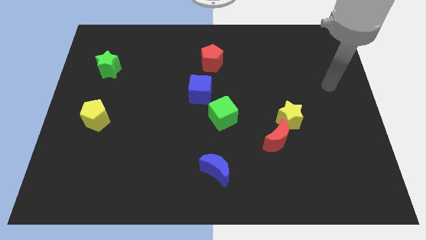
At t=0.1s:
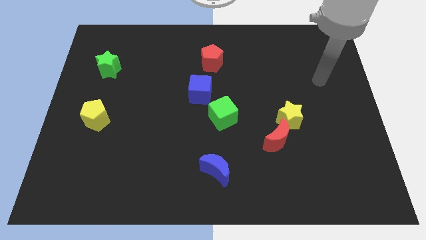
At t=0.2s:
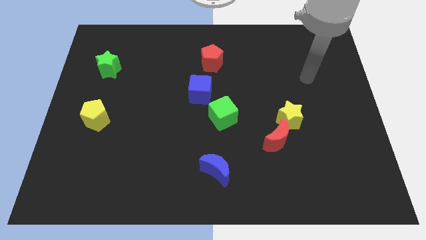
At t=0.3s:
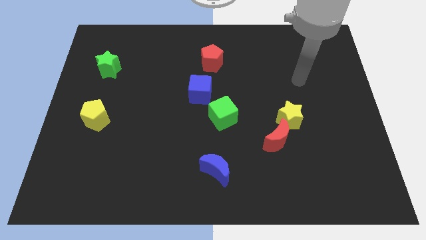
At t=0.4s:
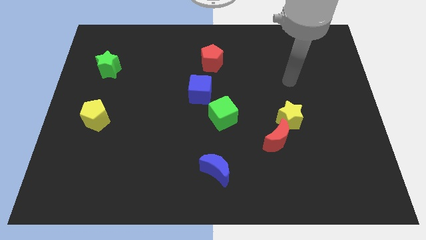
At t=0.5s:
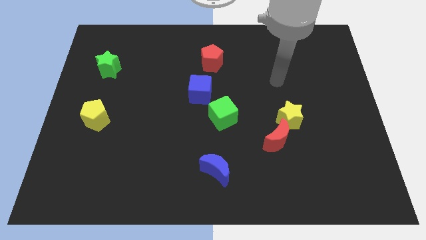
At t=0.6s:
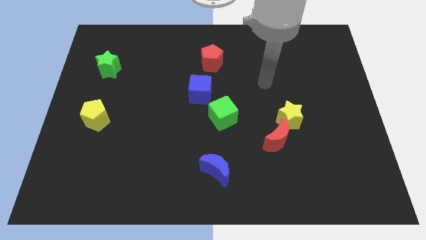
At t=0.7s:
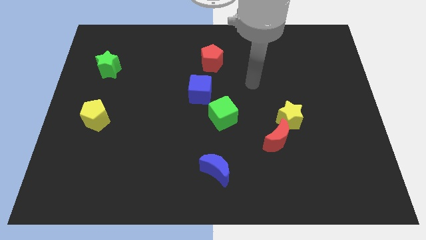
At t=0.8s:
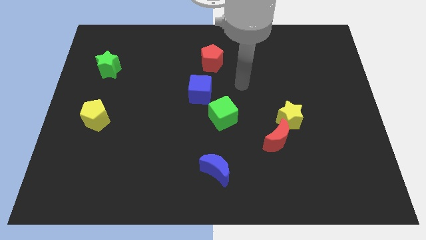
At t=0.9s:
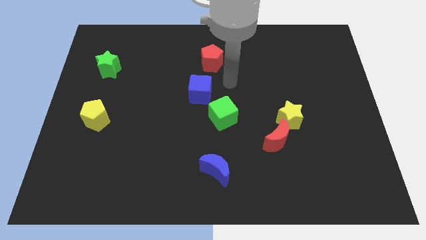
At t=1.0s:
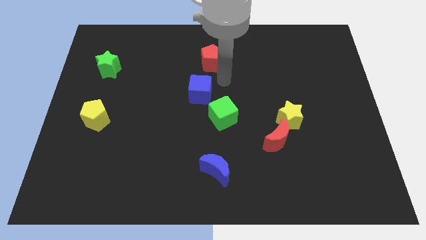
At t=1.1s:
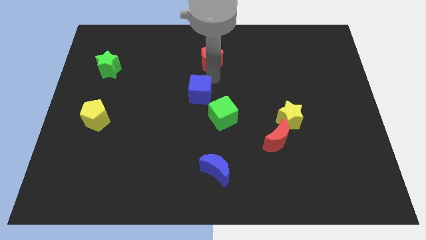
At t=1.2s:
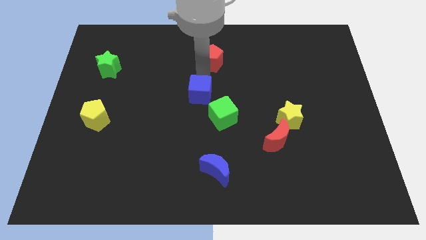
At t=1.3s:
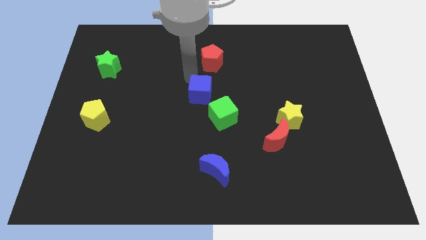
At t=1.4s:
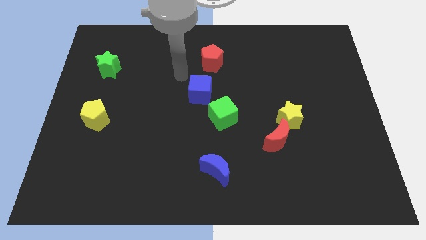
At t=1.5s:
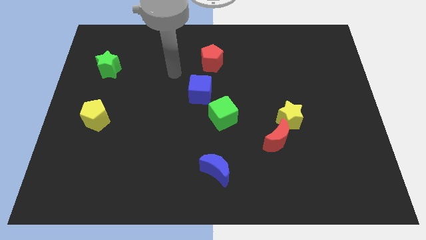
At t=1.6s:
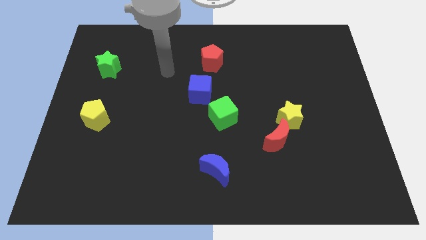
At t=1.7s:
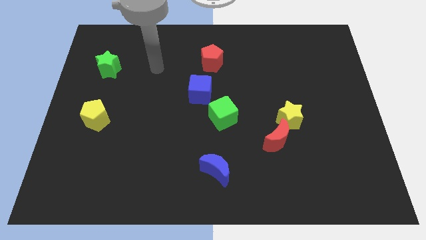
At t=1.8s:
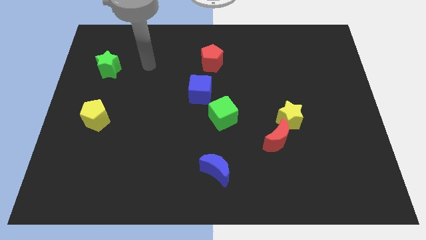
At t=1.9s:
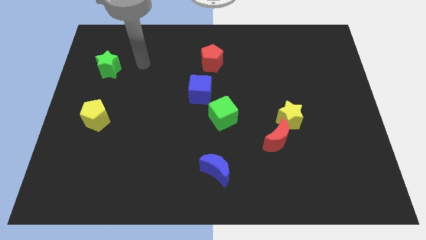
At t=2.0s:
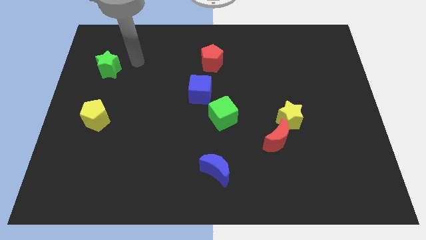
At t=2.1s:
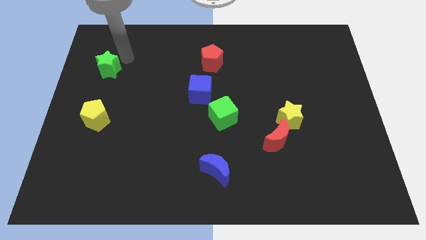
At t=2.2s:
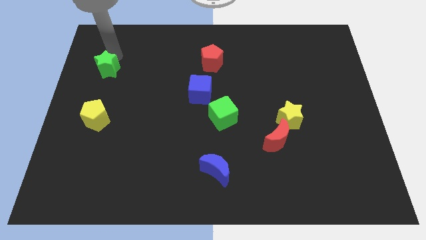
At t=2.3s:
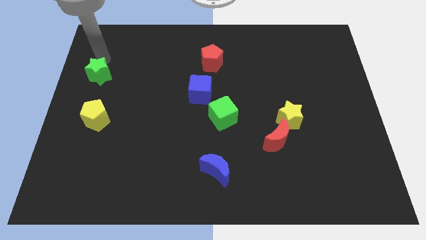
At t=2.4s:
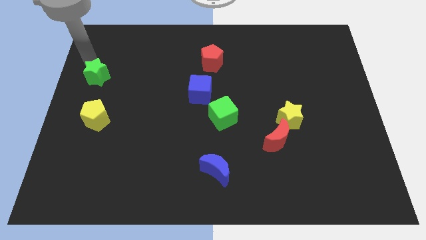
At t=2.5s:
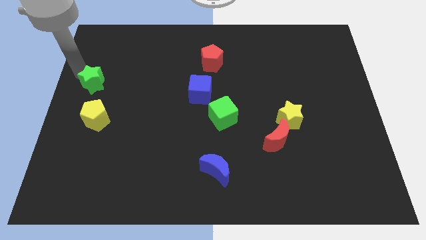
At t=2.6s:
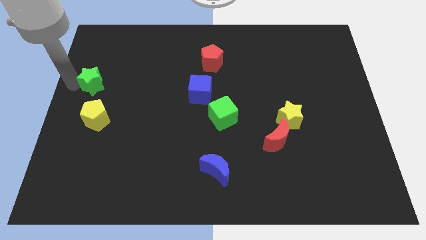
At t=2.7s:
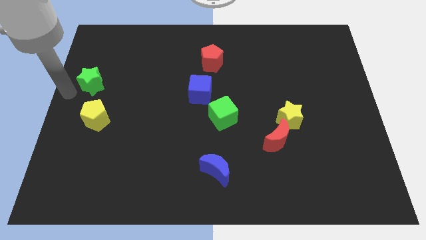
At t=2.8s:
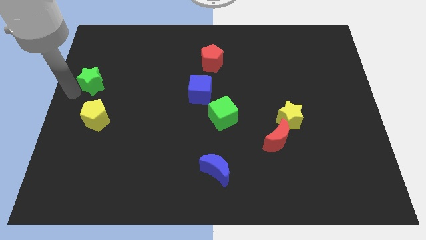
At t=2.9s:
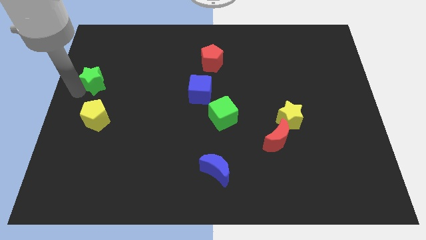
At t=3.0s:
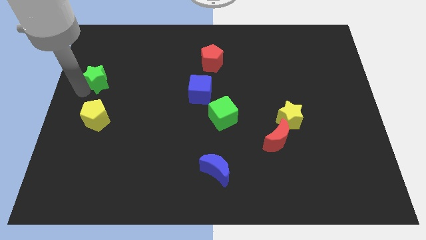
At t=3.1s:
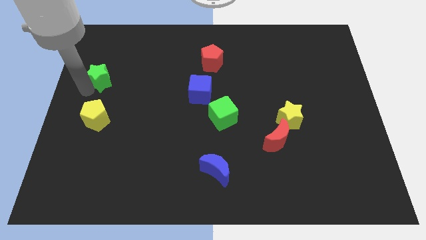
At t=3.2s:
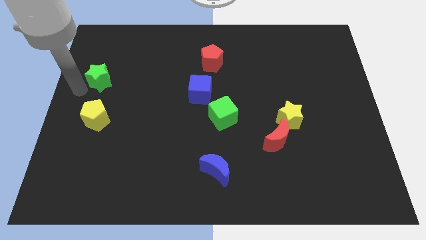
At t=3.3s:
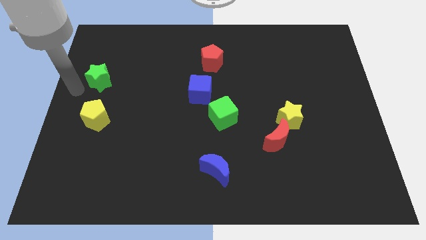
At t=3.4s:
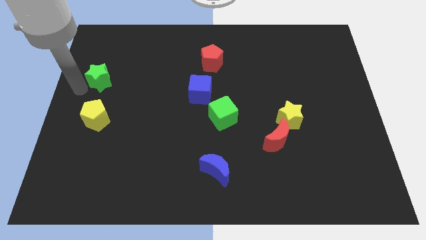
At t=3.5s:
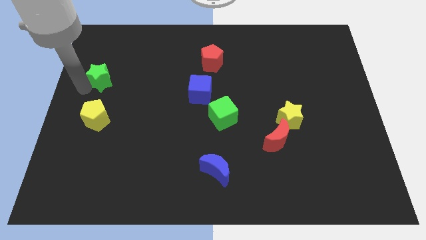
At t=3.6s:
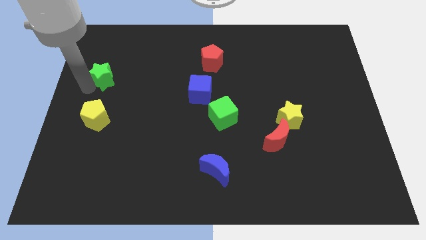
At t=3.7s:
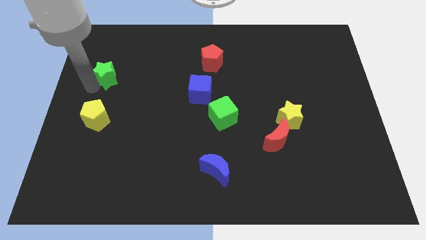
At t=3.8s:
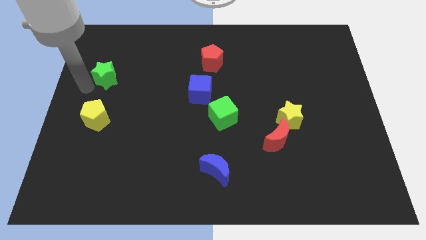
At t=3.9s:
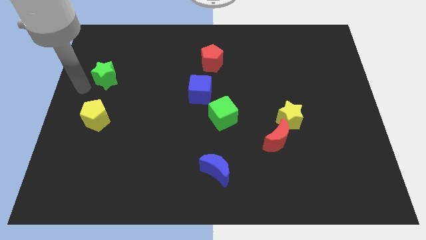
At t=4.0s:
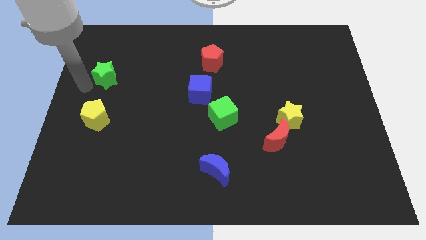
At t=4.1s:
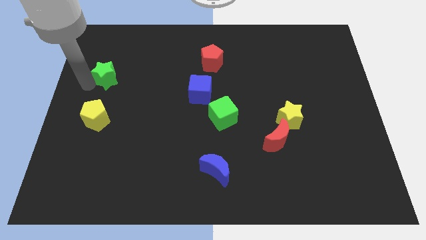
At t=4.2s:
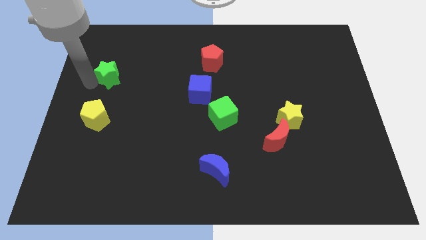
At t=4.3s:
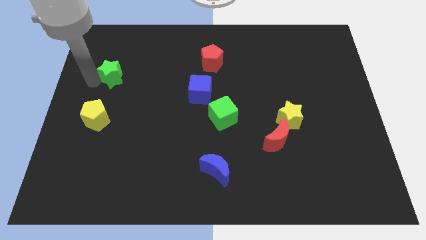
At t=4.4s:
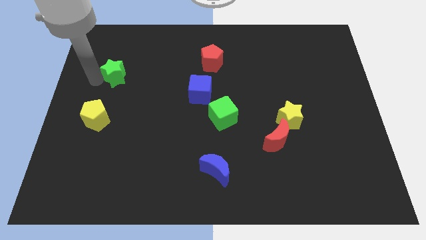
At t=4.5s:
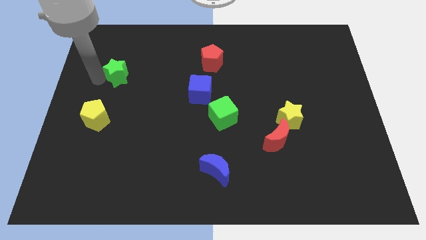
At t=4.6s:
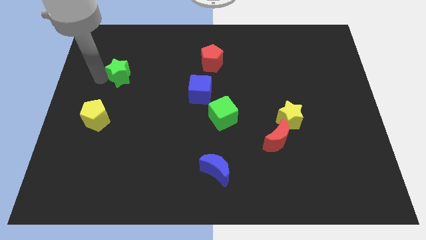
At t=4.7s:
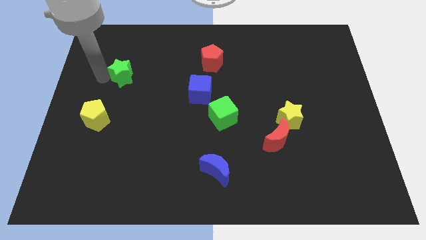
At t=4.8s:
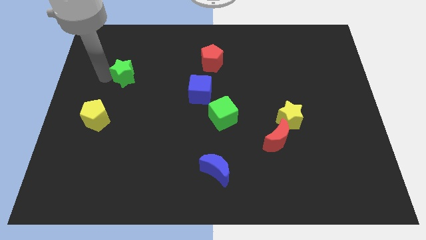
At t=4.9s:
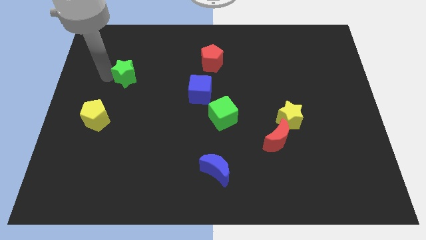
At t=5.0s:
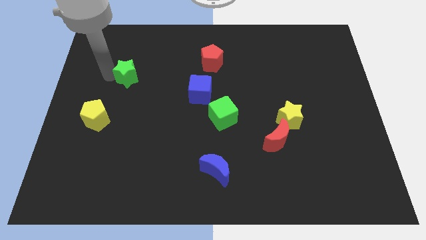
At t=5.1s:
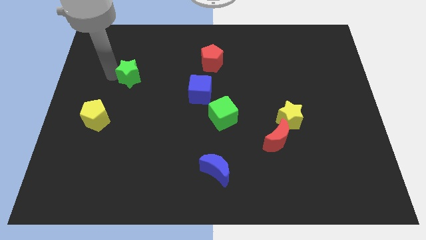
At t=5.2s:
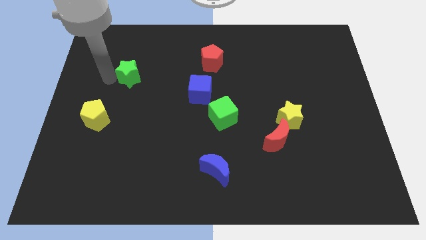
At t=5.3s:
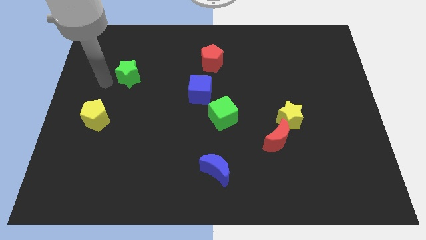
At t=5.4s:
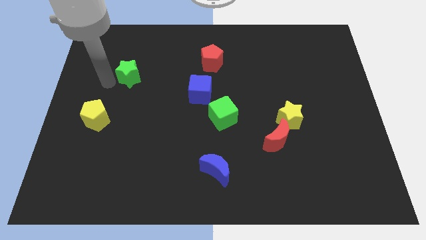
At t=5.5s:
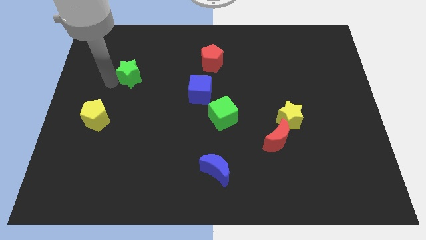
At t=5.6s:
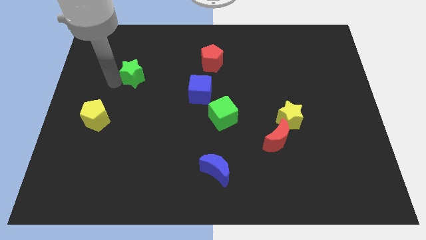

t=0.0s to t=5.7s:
slide the green star to the right a bit

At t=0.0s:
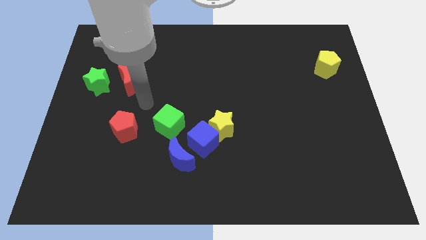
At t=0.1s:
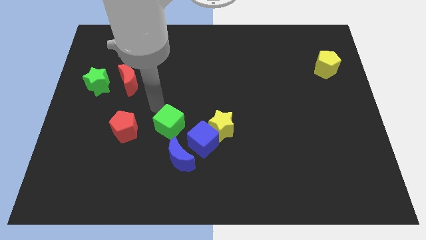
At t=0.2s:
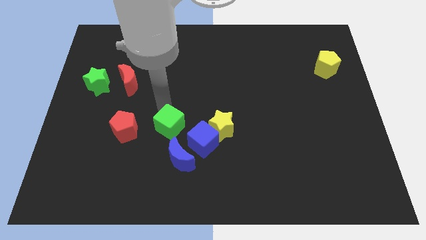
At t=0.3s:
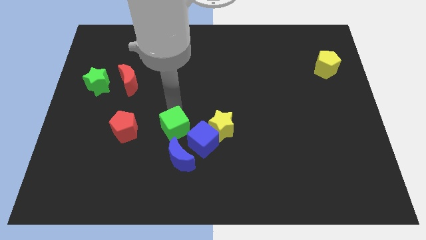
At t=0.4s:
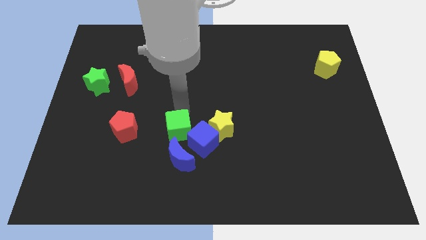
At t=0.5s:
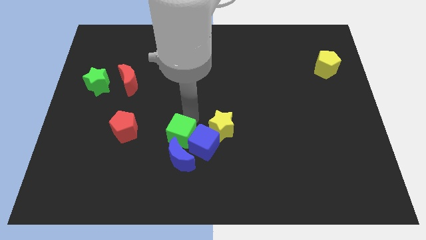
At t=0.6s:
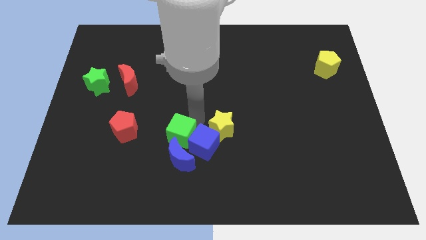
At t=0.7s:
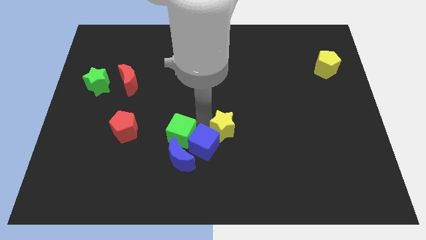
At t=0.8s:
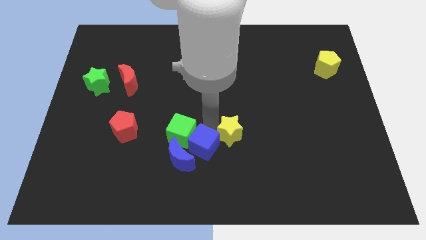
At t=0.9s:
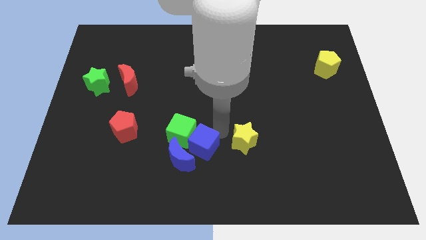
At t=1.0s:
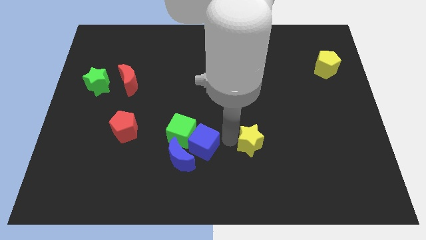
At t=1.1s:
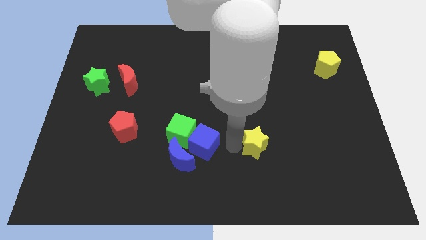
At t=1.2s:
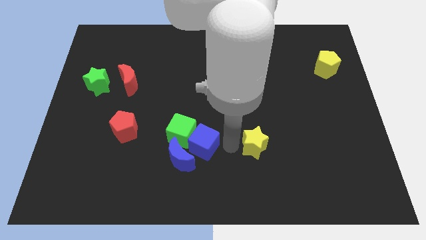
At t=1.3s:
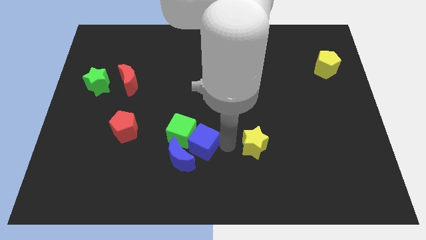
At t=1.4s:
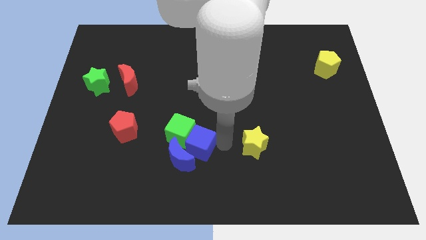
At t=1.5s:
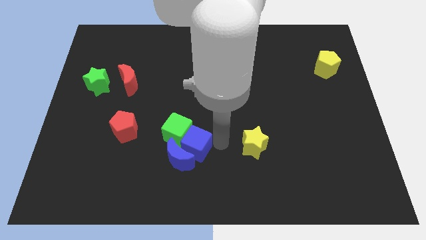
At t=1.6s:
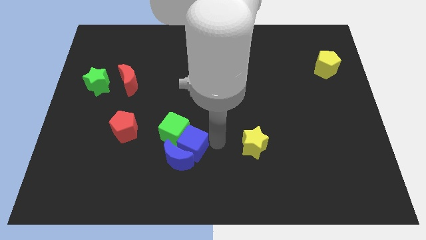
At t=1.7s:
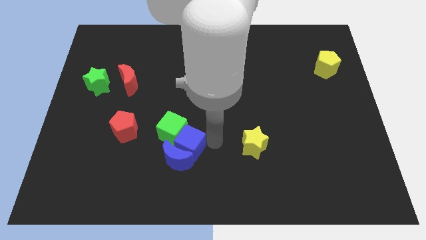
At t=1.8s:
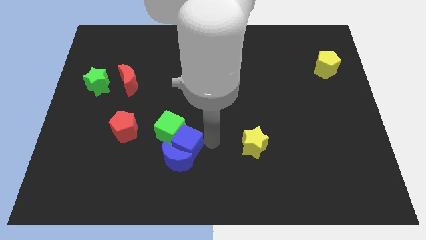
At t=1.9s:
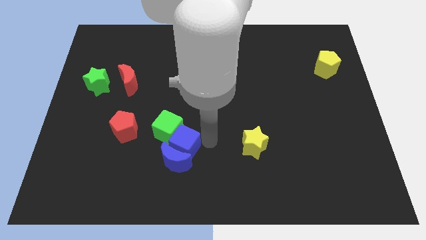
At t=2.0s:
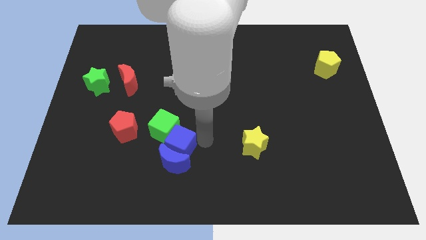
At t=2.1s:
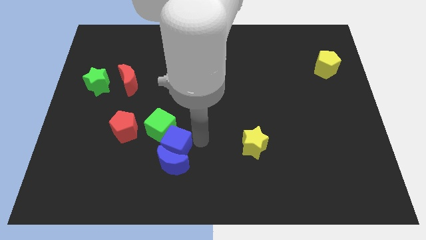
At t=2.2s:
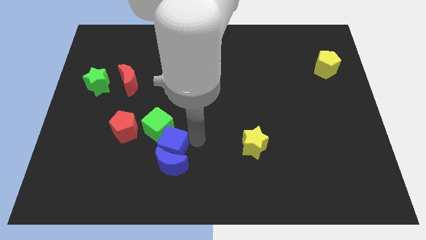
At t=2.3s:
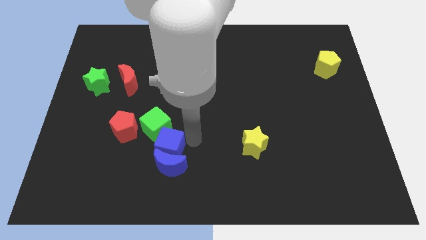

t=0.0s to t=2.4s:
slide the blue cube somewhat left

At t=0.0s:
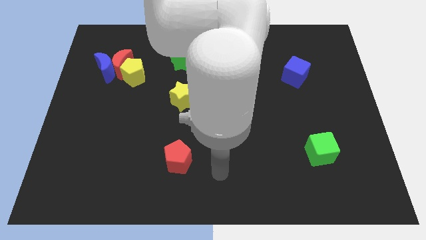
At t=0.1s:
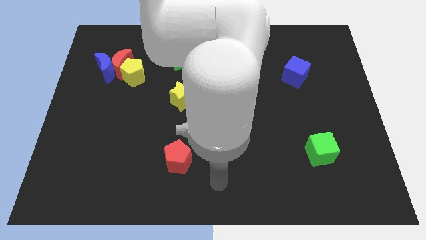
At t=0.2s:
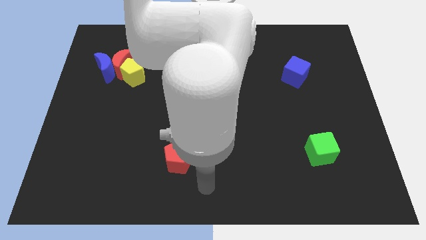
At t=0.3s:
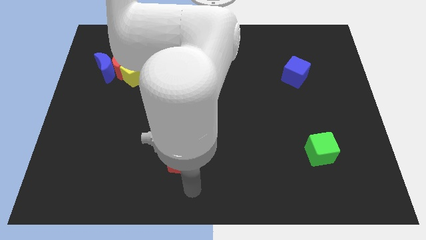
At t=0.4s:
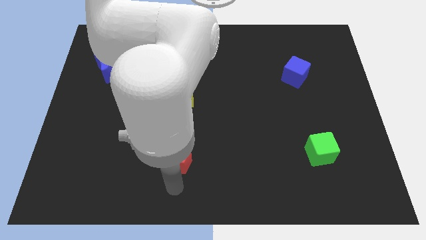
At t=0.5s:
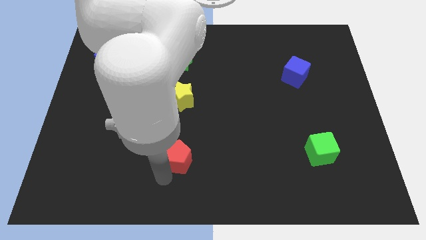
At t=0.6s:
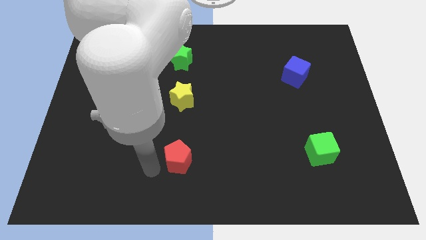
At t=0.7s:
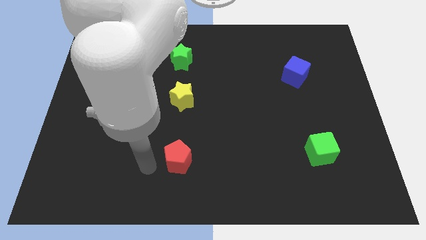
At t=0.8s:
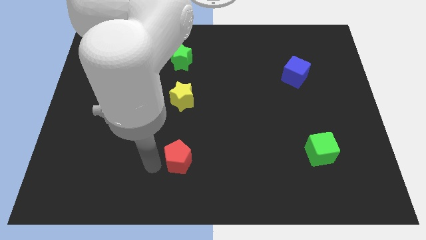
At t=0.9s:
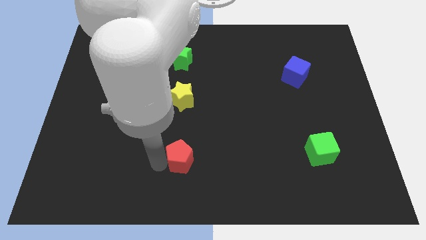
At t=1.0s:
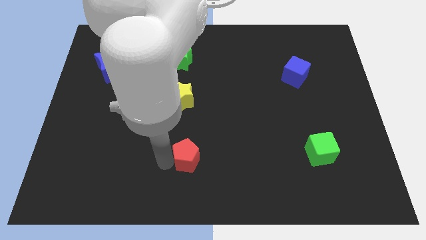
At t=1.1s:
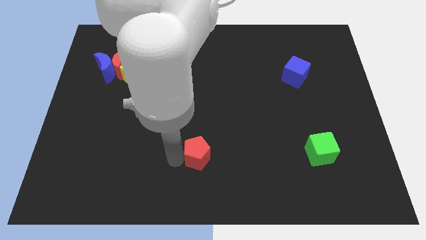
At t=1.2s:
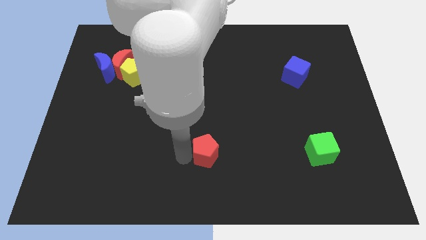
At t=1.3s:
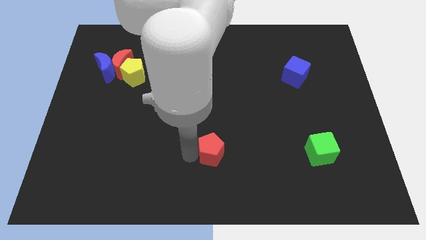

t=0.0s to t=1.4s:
slide the red pentagon a bit right
